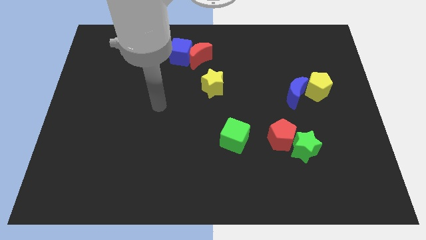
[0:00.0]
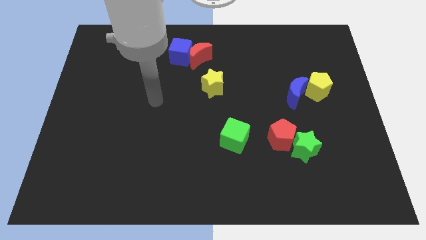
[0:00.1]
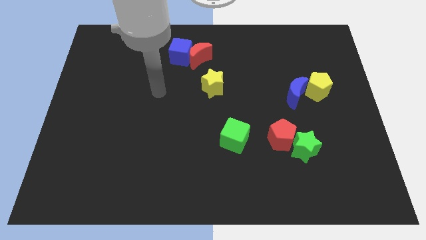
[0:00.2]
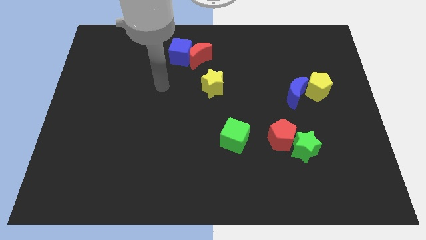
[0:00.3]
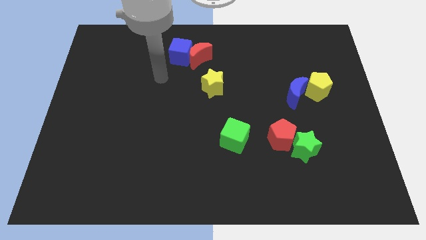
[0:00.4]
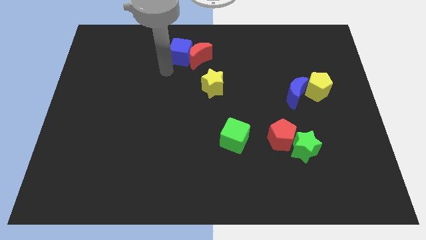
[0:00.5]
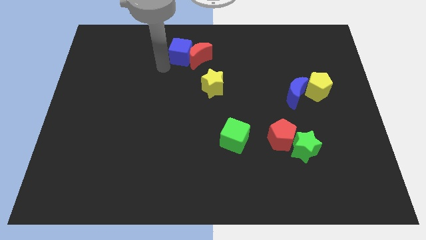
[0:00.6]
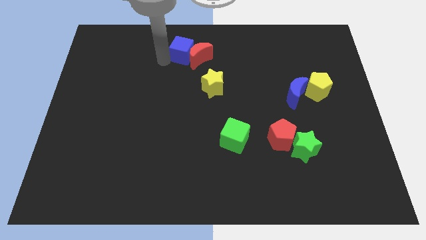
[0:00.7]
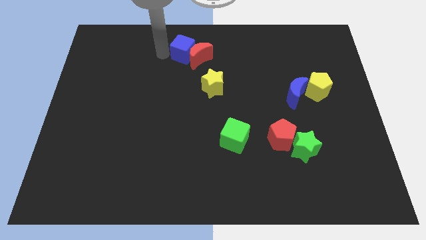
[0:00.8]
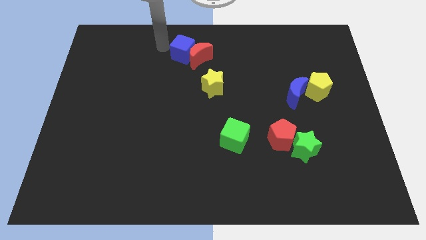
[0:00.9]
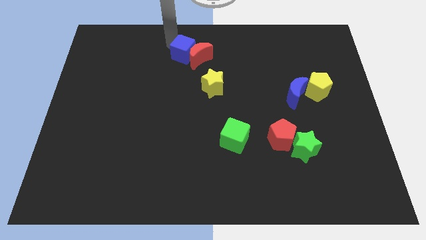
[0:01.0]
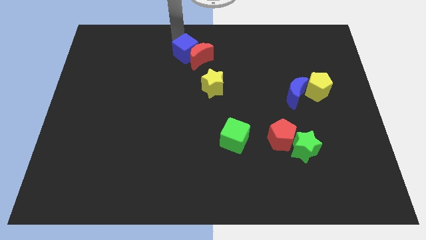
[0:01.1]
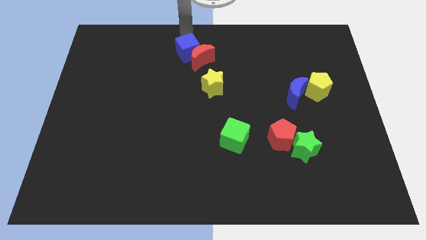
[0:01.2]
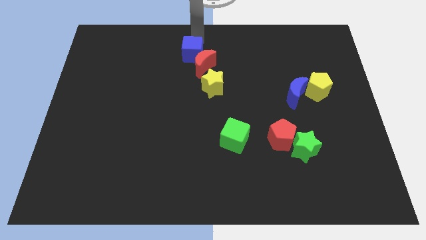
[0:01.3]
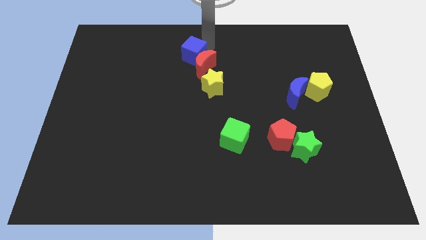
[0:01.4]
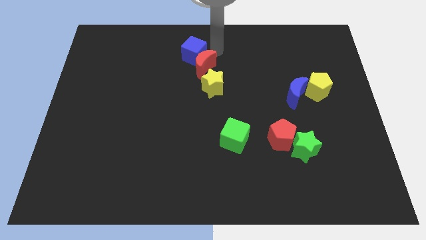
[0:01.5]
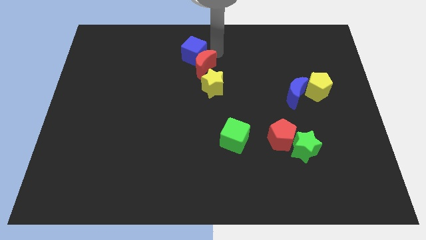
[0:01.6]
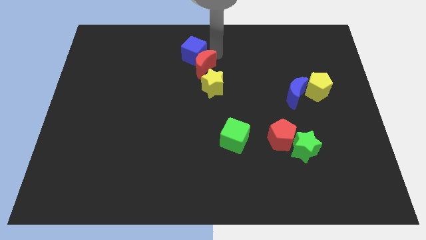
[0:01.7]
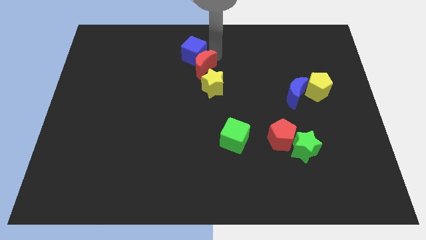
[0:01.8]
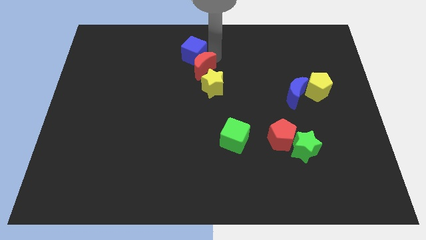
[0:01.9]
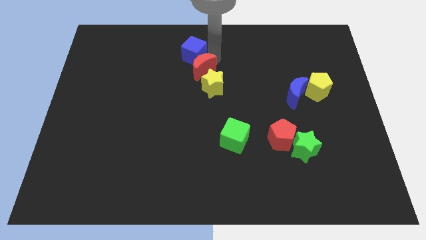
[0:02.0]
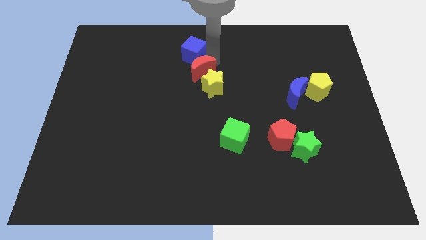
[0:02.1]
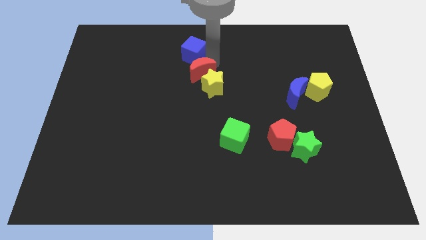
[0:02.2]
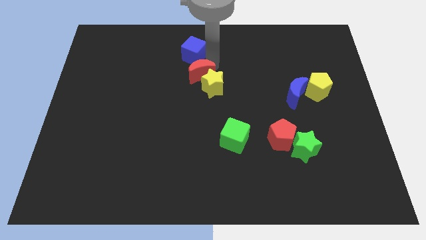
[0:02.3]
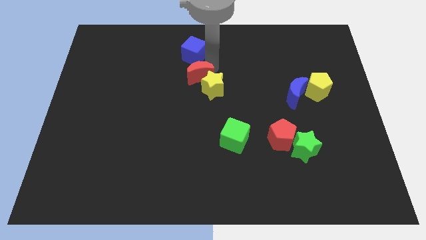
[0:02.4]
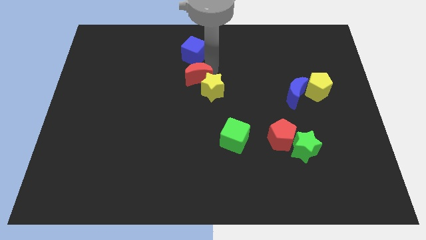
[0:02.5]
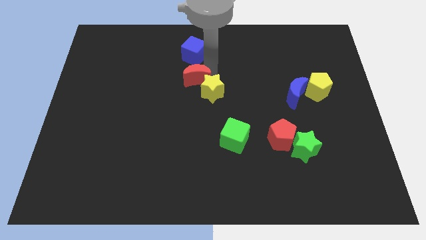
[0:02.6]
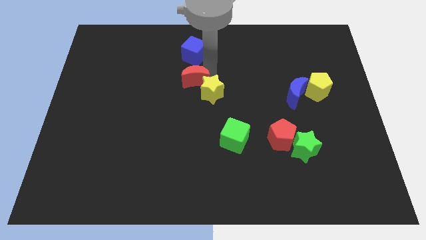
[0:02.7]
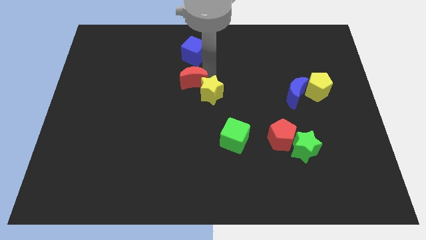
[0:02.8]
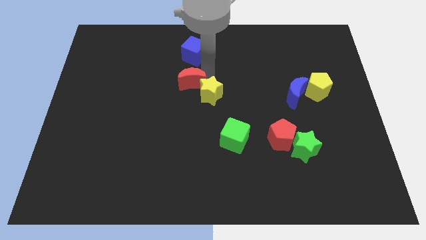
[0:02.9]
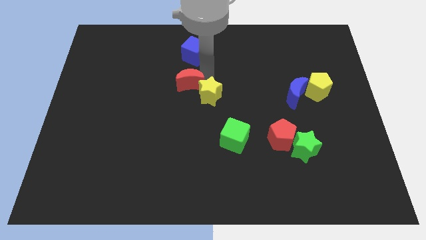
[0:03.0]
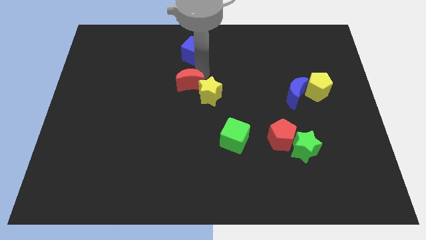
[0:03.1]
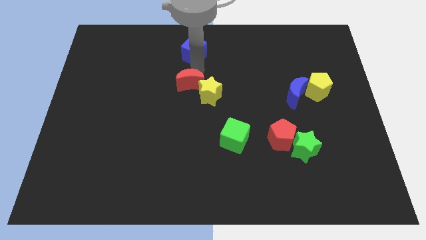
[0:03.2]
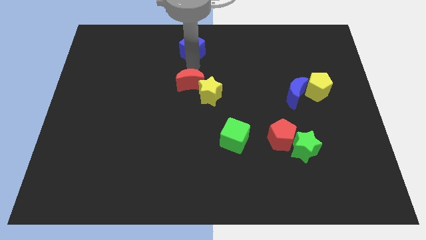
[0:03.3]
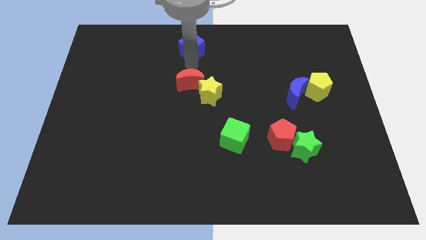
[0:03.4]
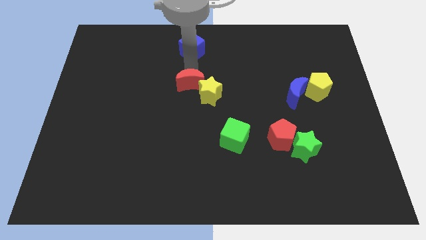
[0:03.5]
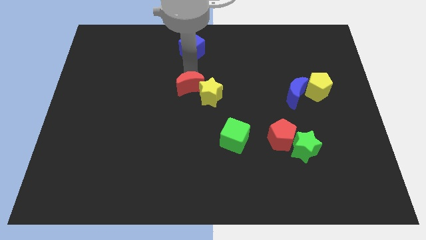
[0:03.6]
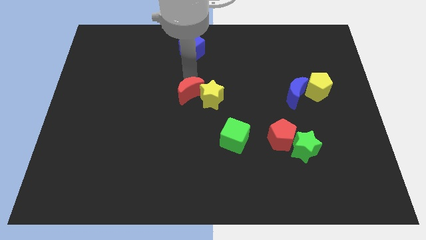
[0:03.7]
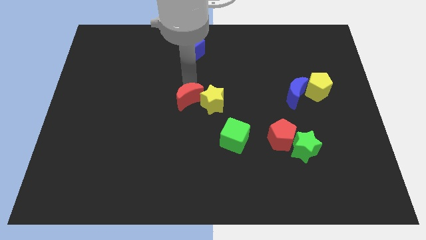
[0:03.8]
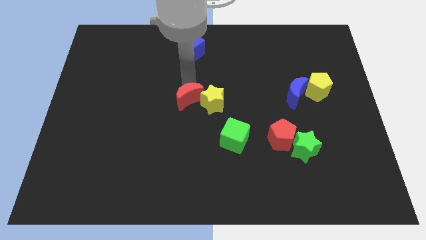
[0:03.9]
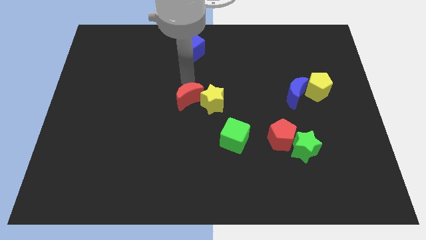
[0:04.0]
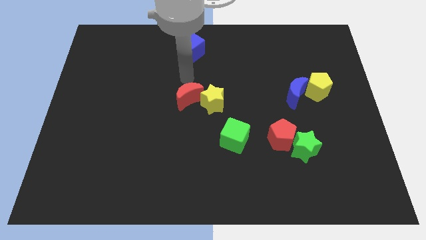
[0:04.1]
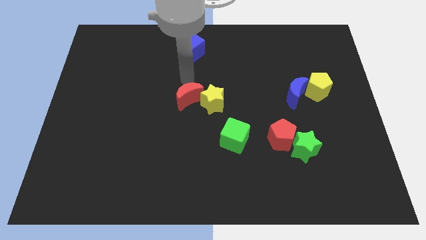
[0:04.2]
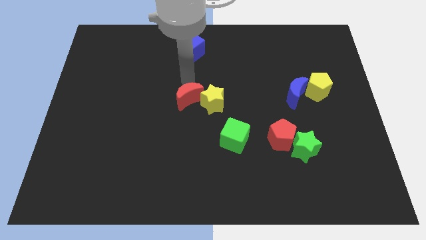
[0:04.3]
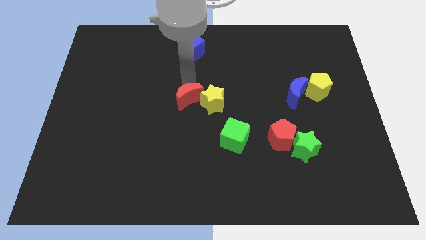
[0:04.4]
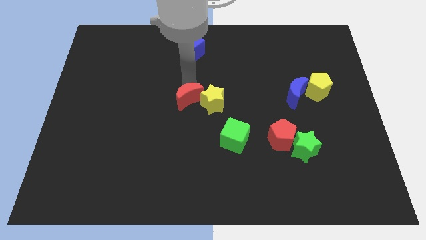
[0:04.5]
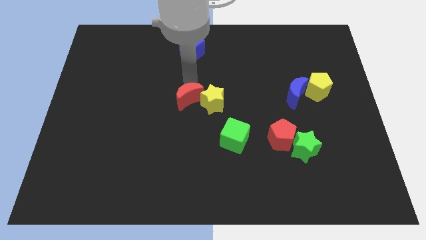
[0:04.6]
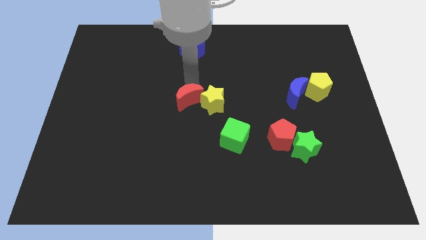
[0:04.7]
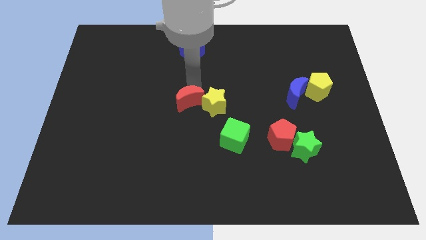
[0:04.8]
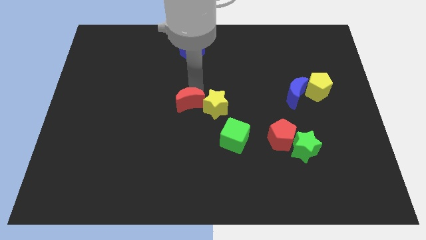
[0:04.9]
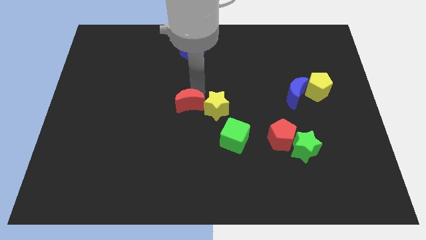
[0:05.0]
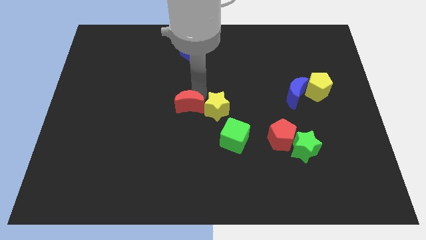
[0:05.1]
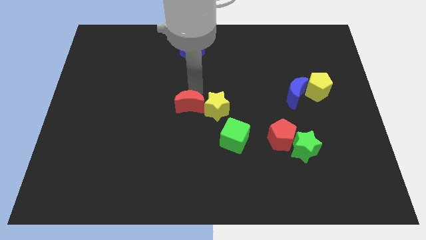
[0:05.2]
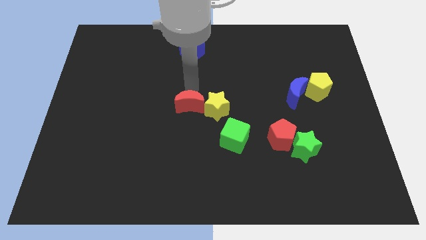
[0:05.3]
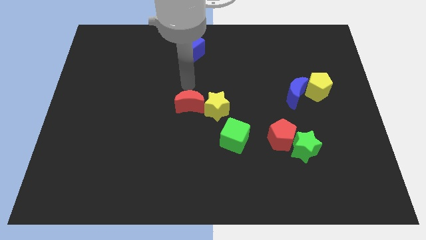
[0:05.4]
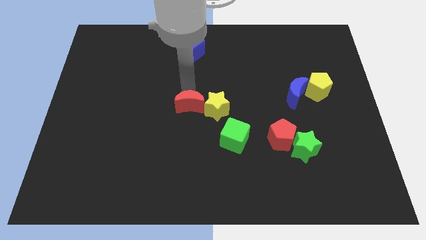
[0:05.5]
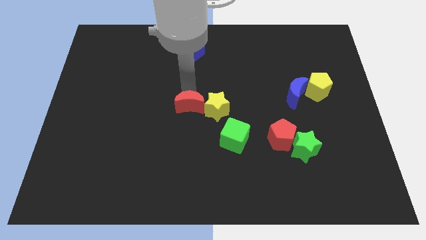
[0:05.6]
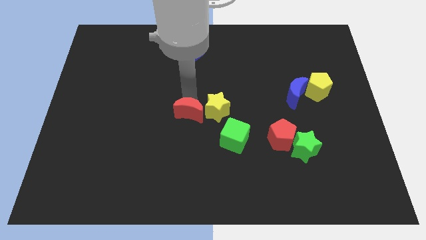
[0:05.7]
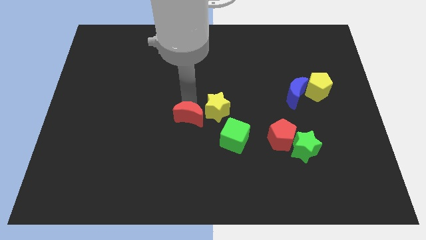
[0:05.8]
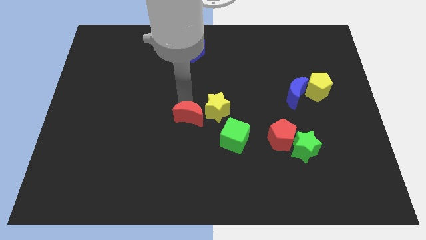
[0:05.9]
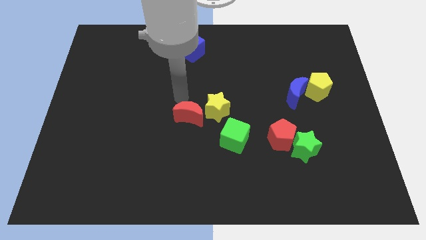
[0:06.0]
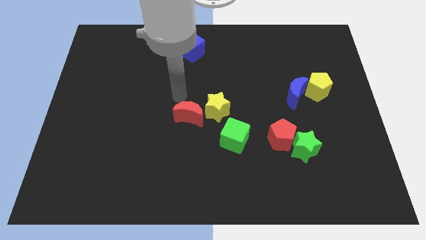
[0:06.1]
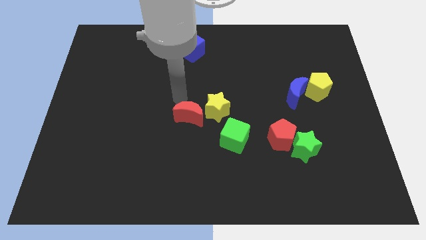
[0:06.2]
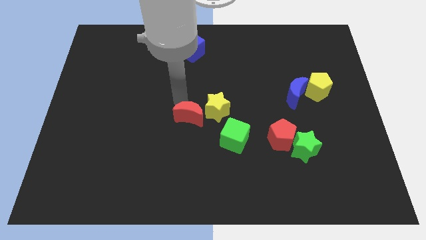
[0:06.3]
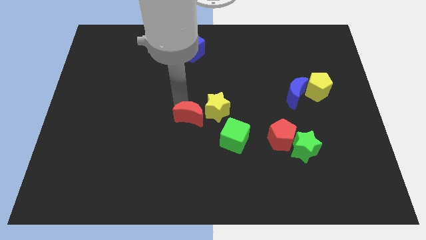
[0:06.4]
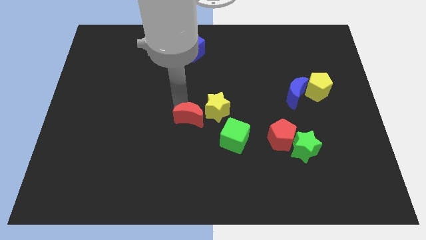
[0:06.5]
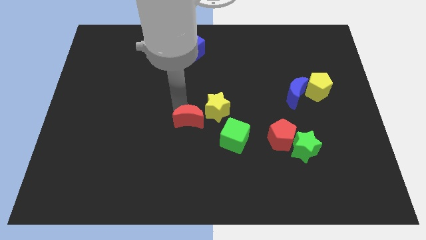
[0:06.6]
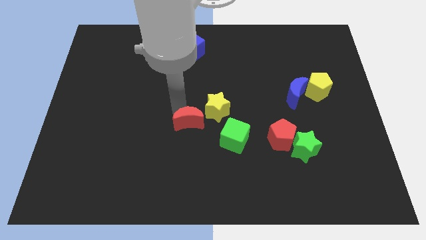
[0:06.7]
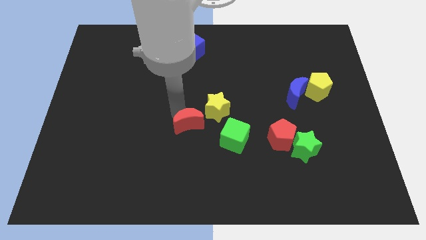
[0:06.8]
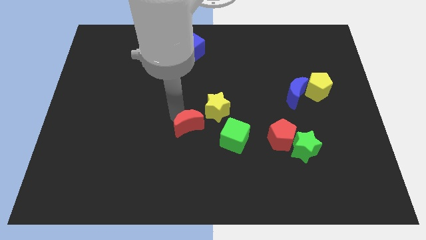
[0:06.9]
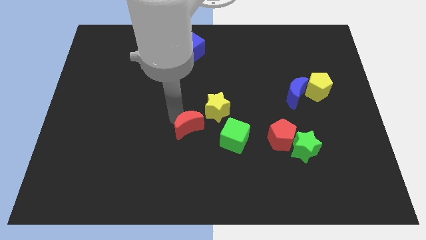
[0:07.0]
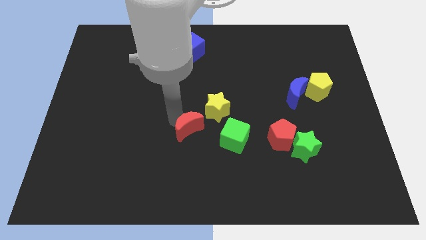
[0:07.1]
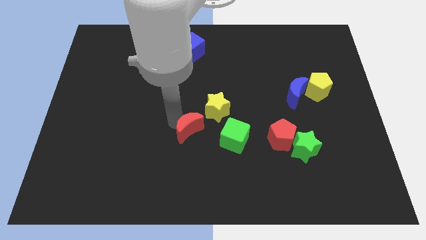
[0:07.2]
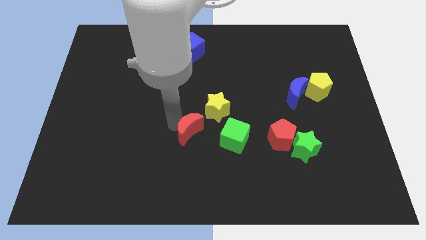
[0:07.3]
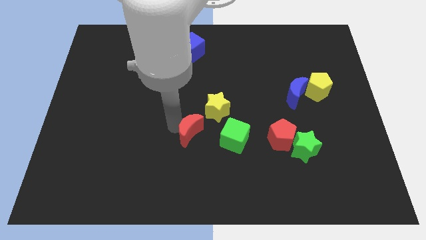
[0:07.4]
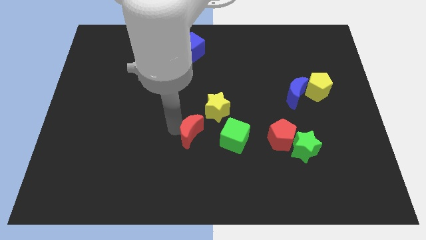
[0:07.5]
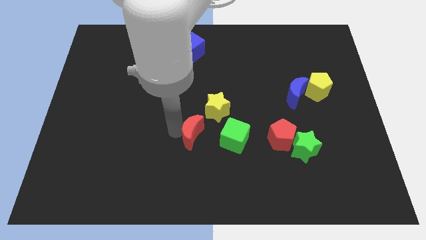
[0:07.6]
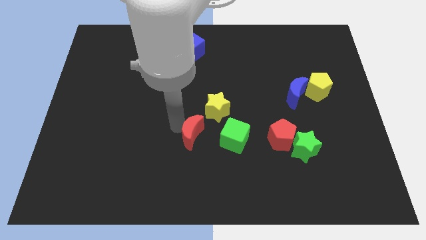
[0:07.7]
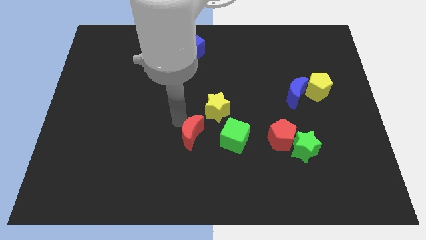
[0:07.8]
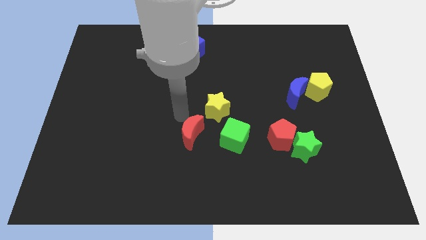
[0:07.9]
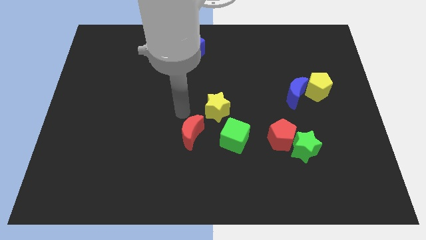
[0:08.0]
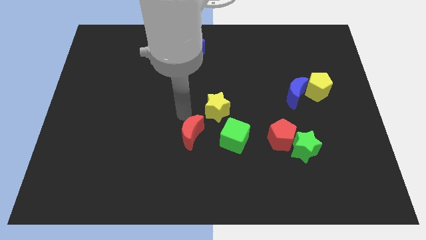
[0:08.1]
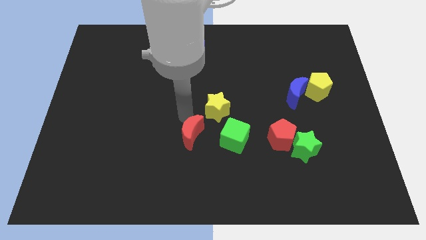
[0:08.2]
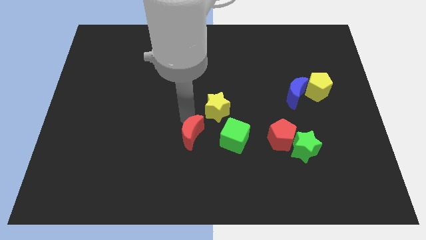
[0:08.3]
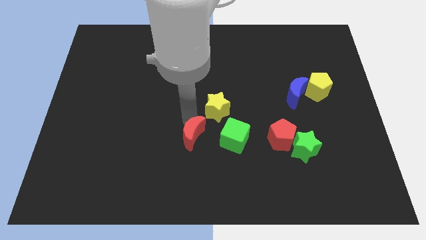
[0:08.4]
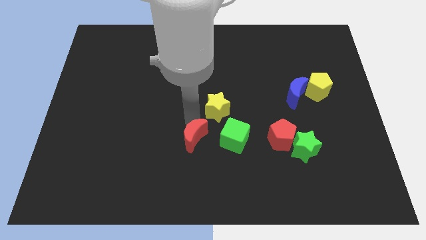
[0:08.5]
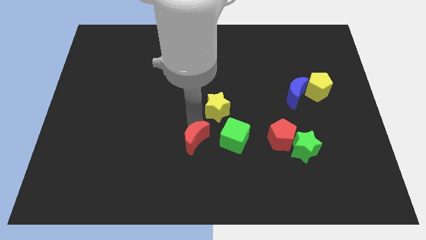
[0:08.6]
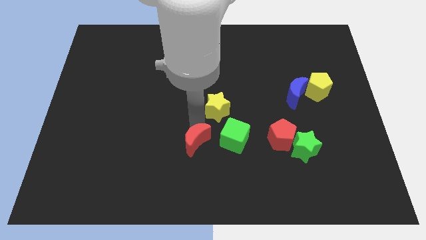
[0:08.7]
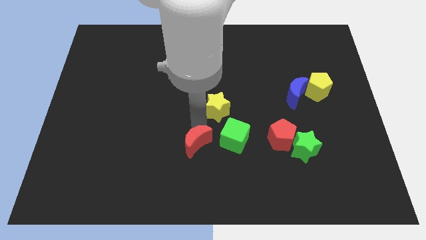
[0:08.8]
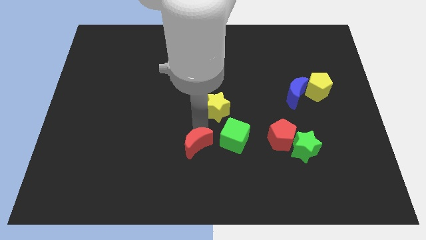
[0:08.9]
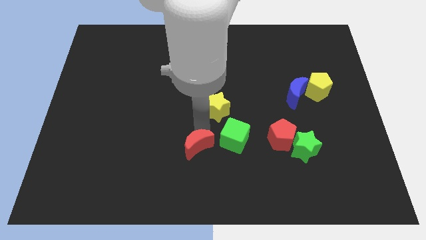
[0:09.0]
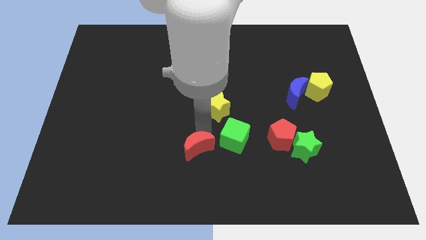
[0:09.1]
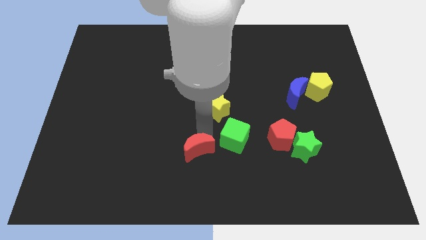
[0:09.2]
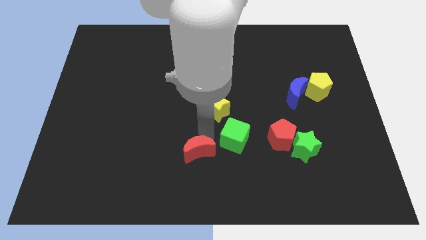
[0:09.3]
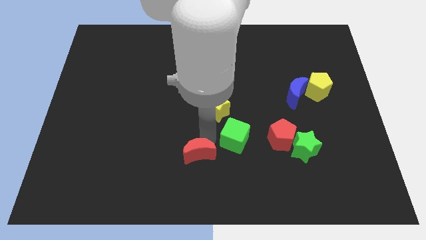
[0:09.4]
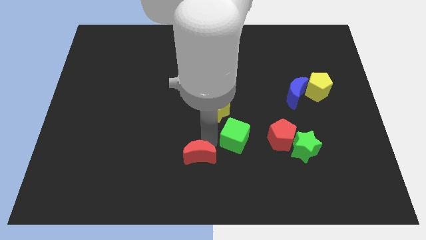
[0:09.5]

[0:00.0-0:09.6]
push the red moon to the bottom side
